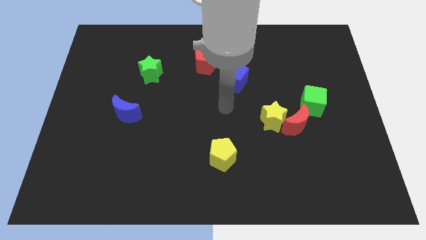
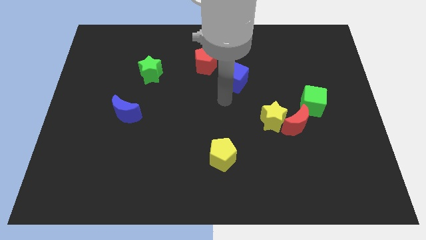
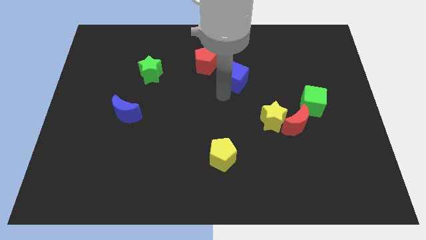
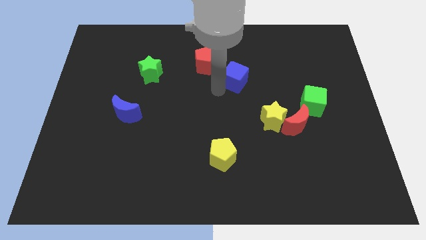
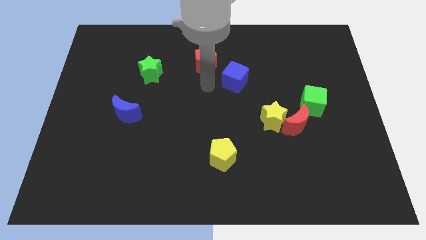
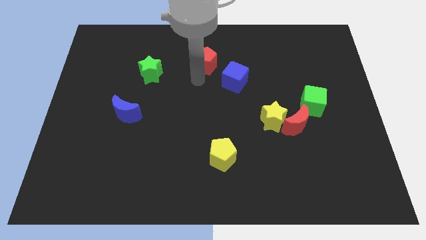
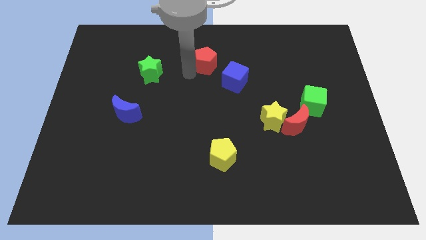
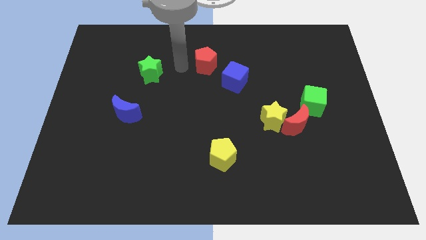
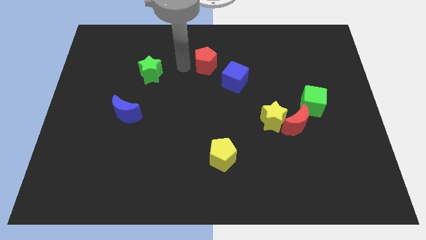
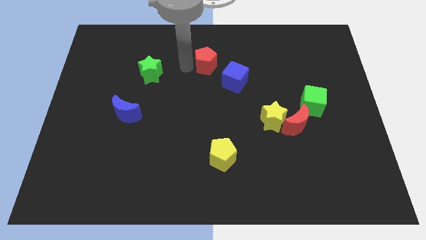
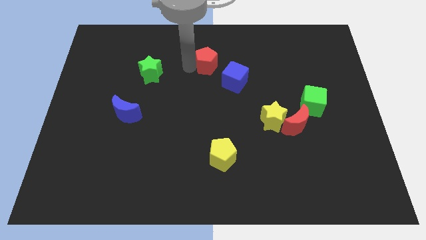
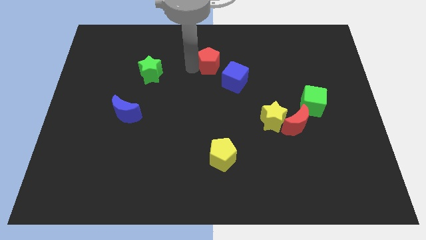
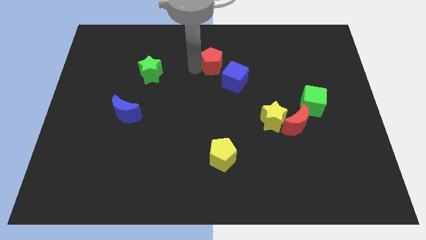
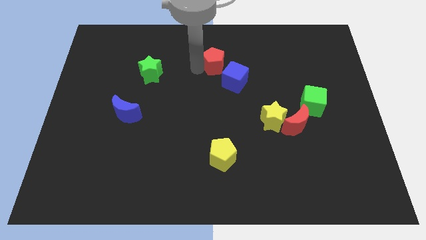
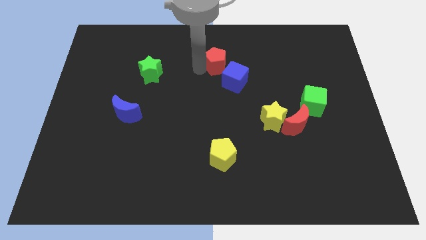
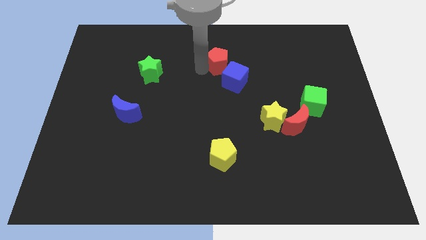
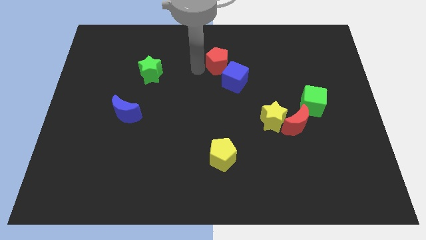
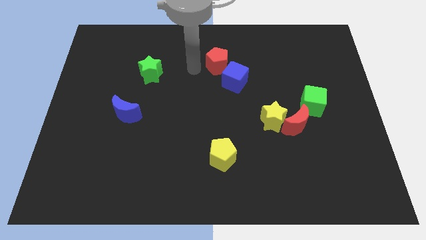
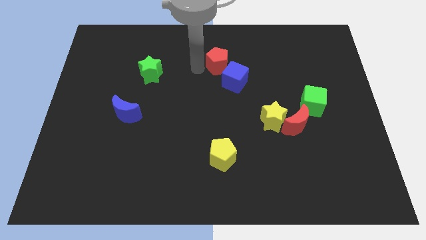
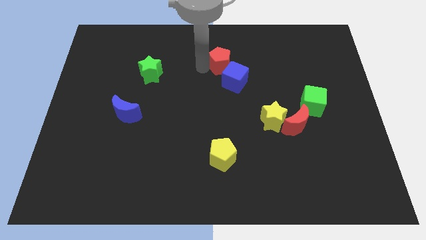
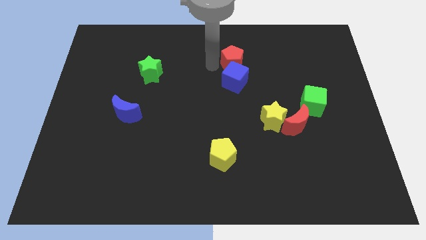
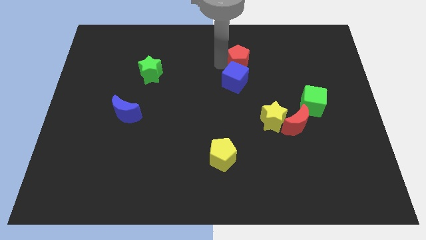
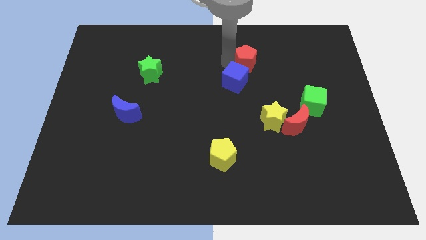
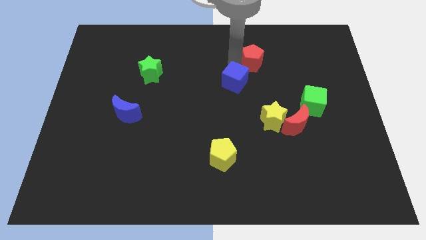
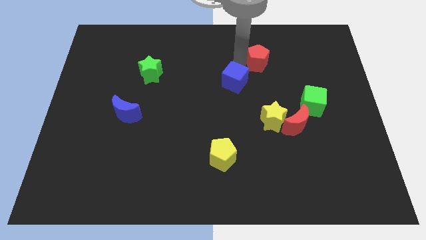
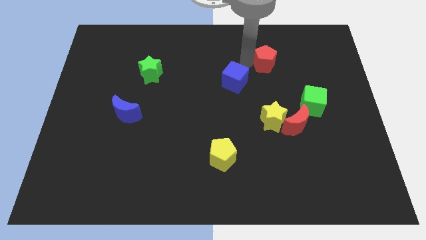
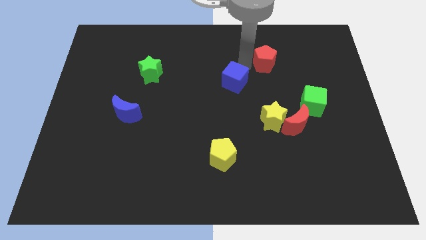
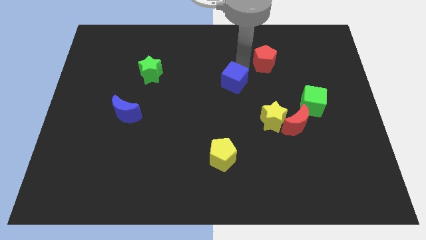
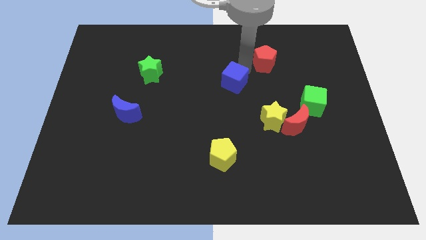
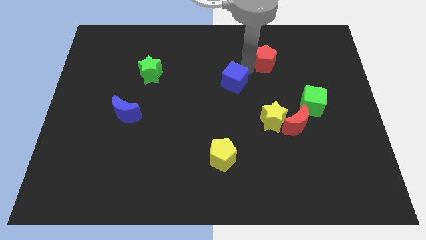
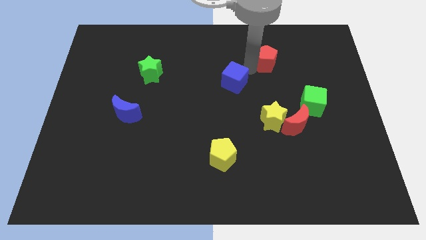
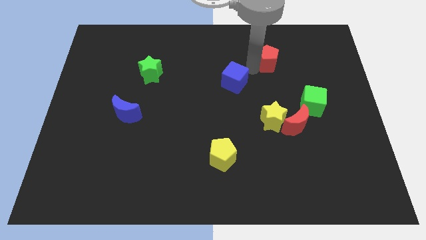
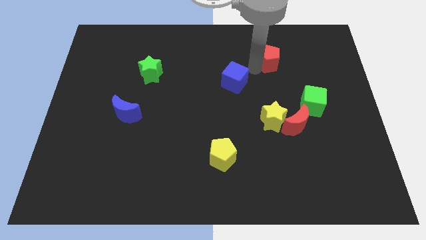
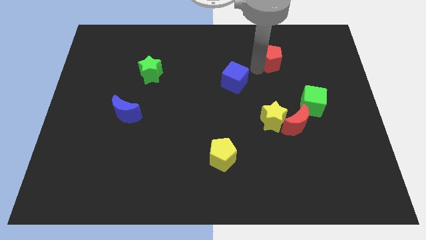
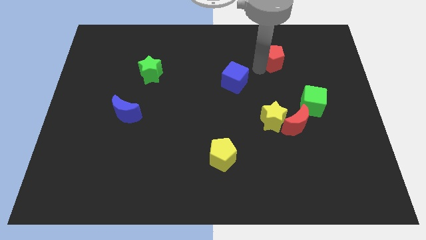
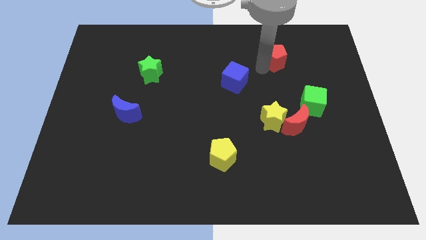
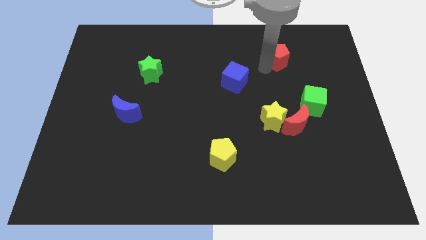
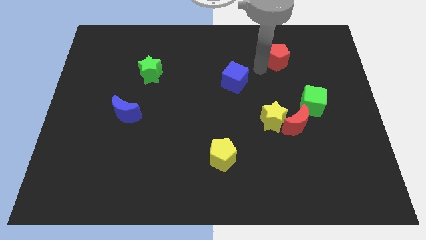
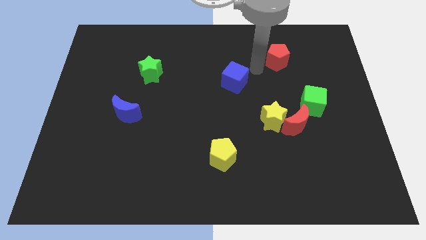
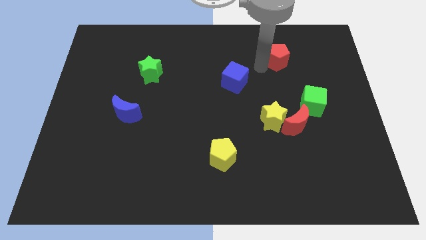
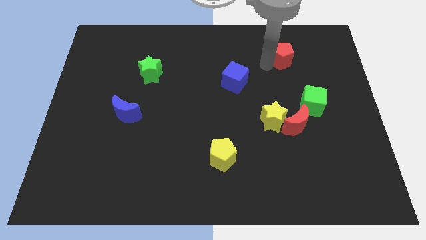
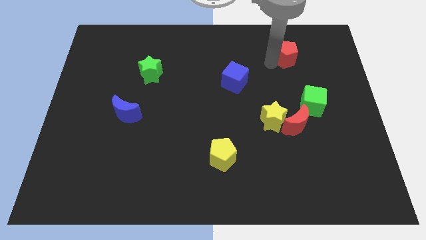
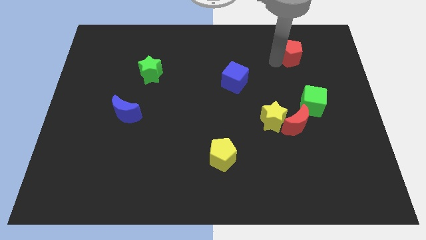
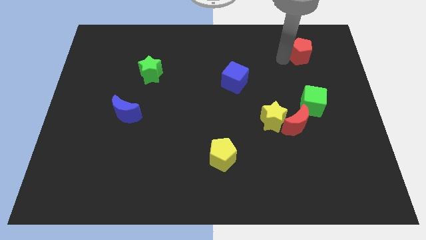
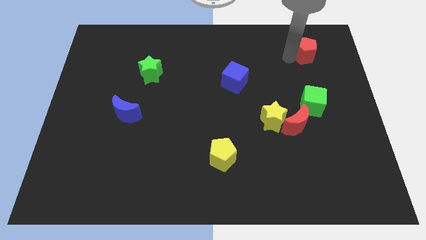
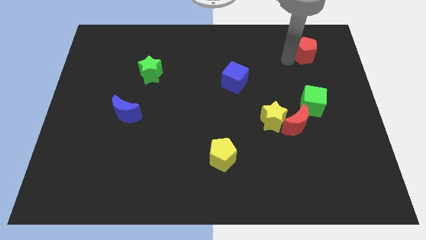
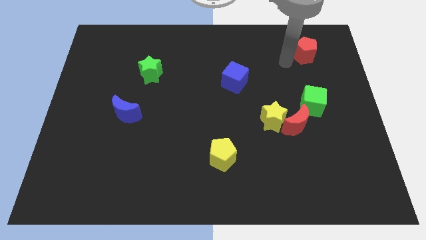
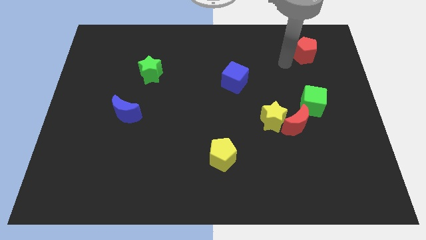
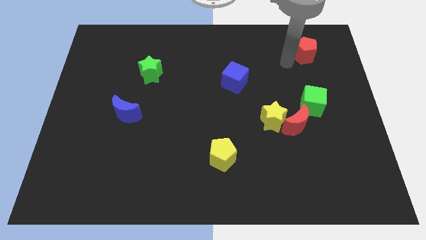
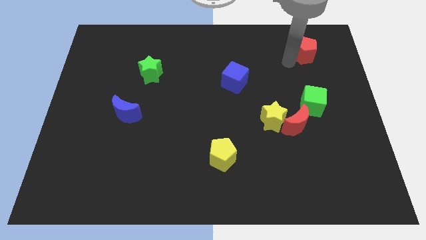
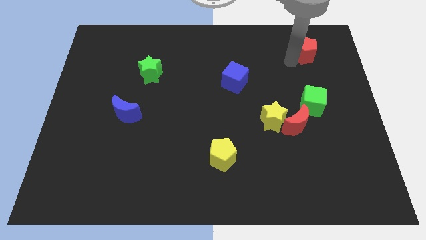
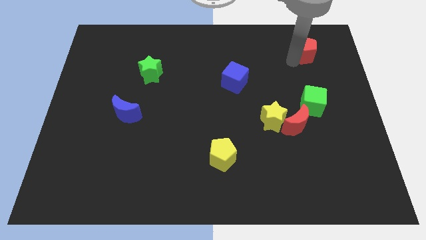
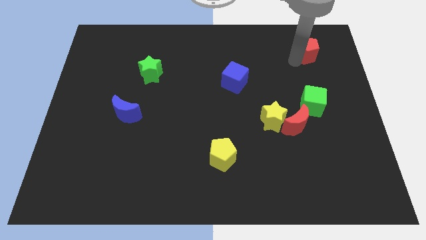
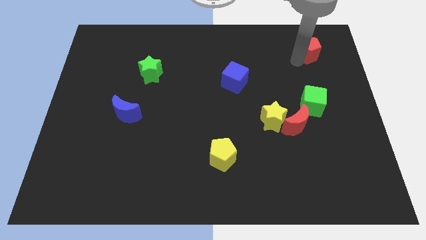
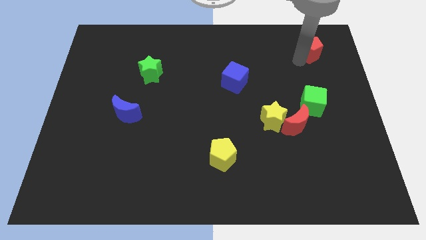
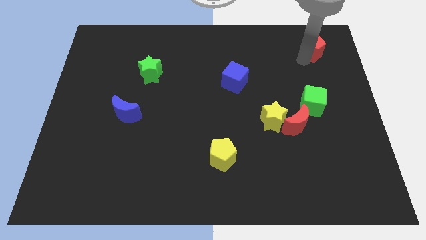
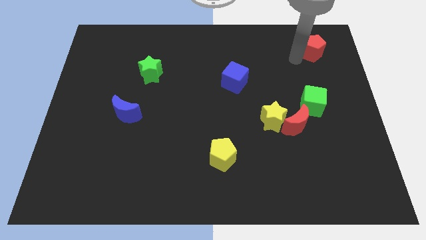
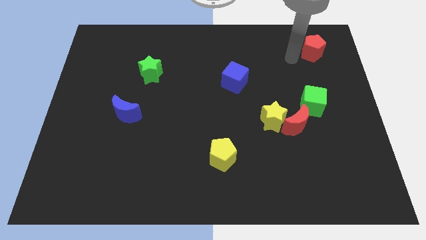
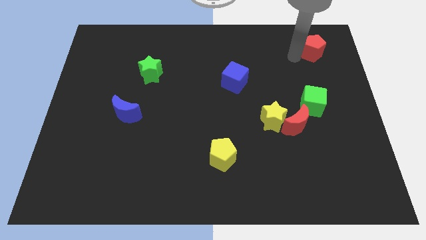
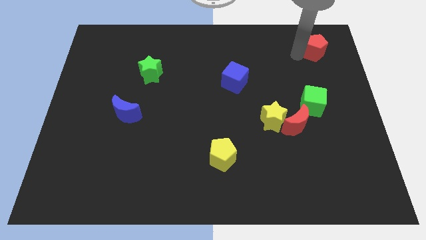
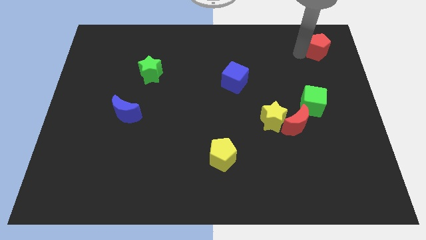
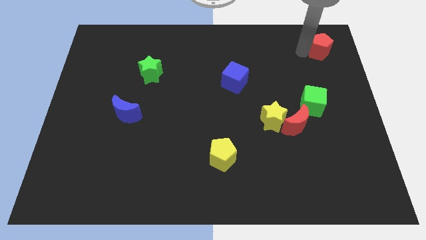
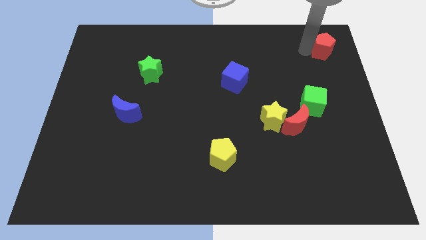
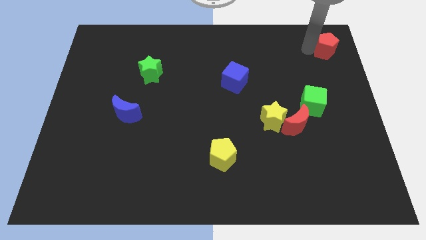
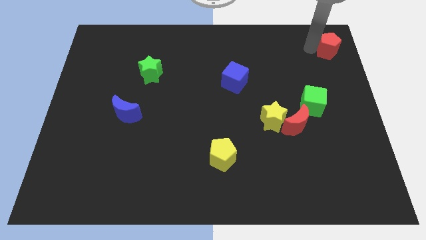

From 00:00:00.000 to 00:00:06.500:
push the red pentagon to the top right corner

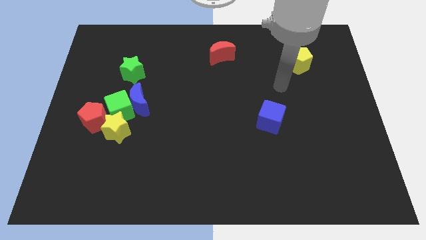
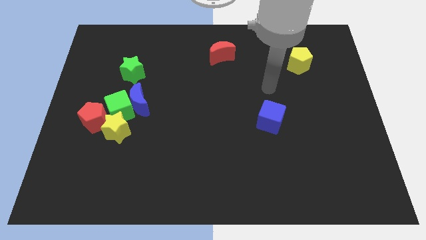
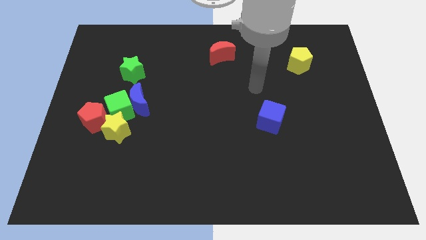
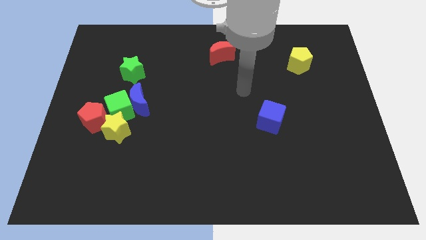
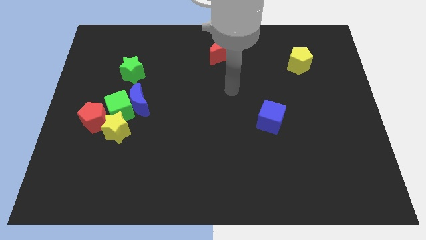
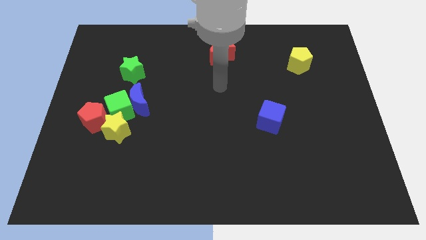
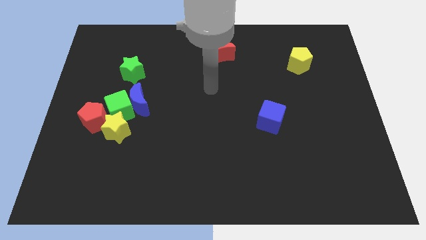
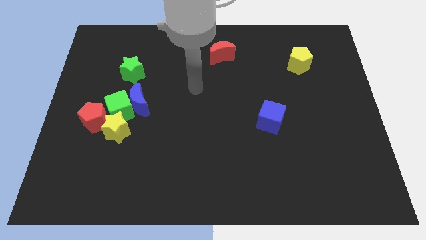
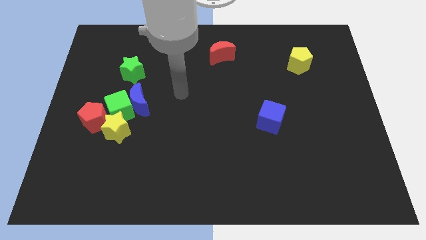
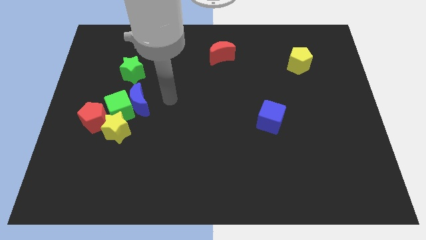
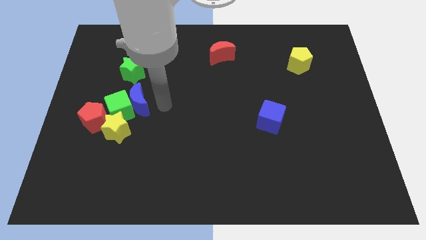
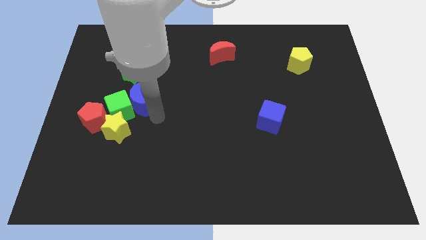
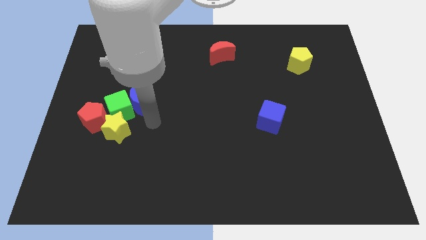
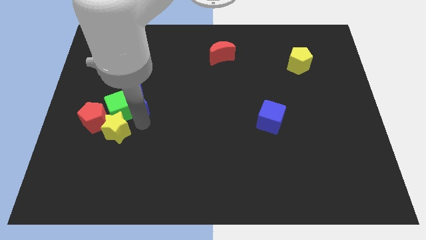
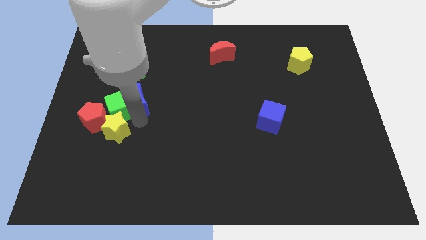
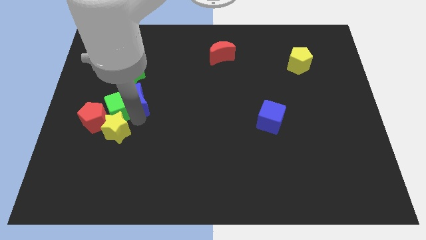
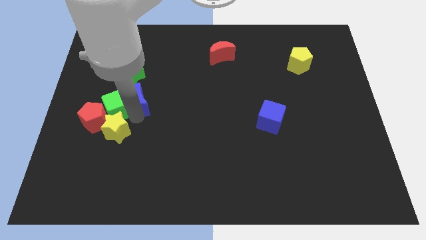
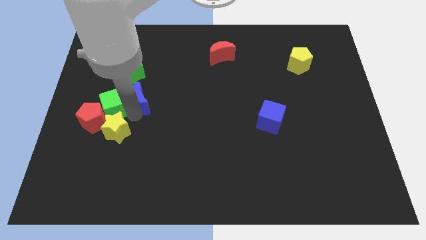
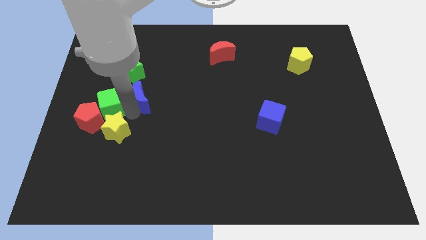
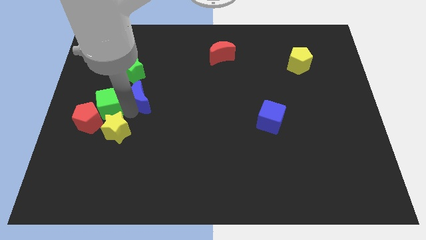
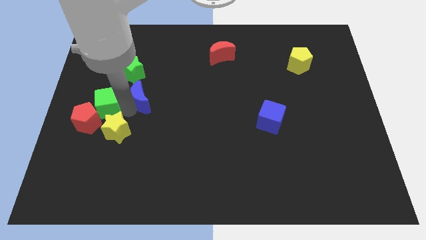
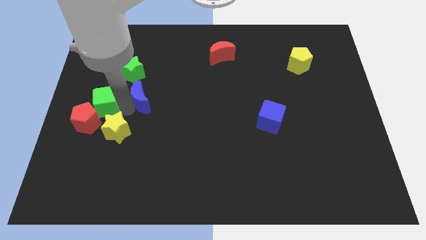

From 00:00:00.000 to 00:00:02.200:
push the green cube to the center left
